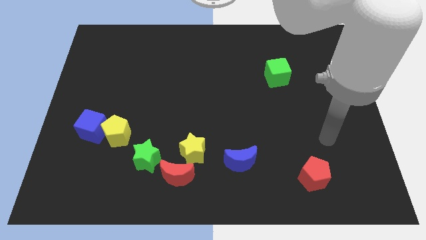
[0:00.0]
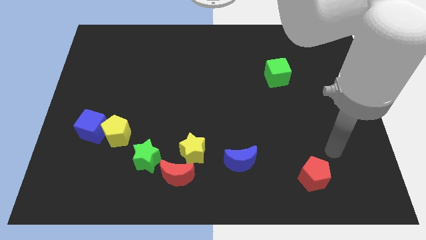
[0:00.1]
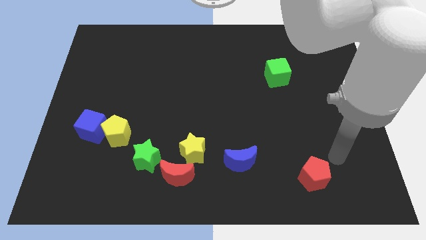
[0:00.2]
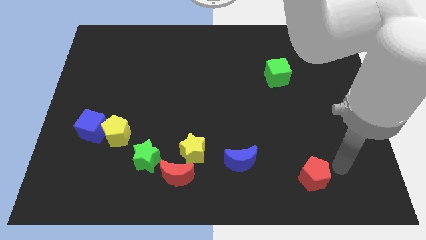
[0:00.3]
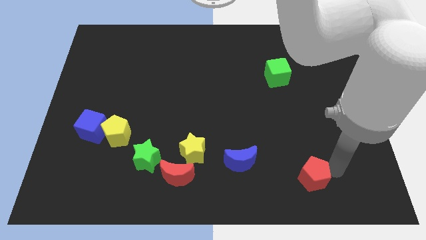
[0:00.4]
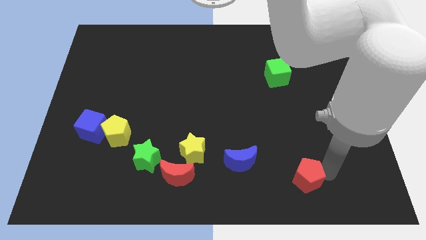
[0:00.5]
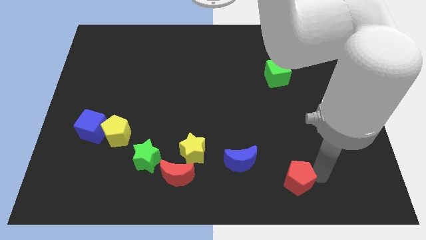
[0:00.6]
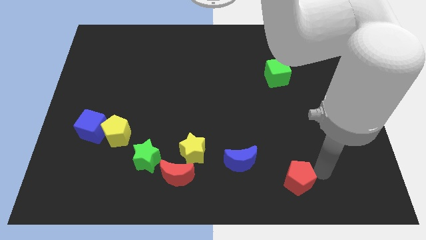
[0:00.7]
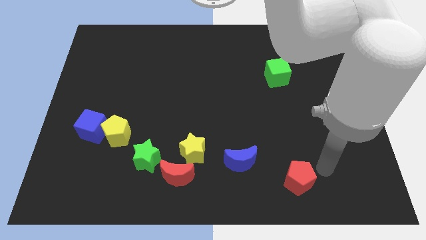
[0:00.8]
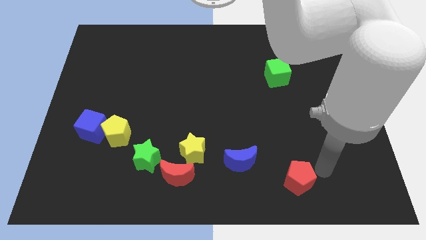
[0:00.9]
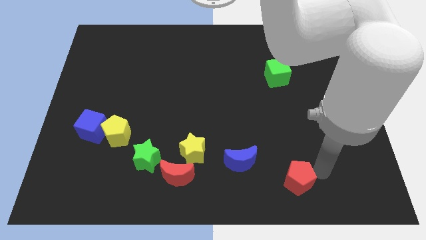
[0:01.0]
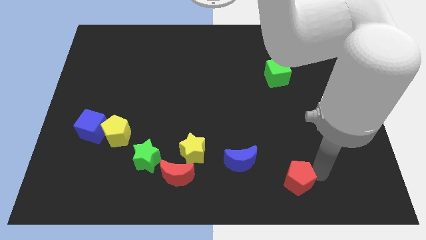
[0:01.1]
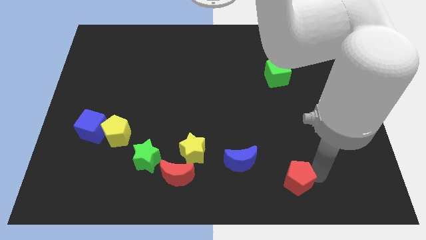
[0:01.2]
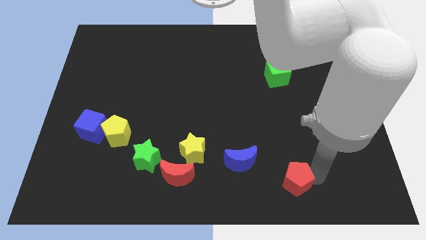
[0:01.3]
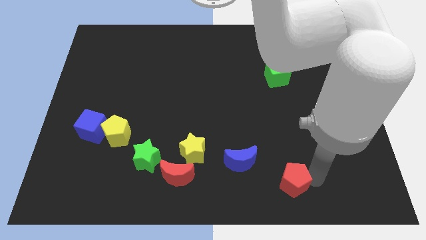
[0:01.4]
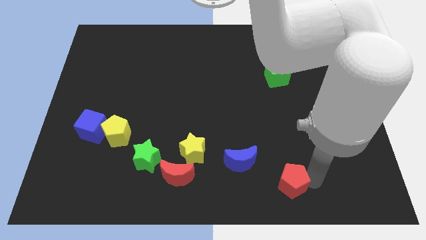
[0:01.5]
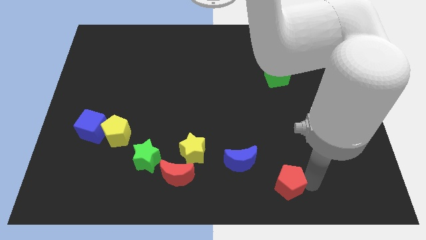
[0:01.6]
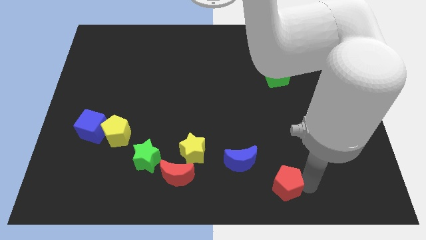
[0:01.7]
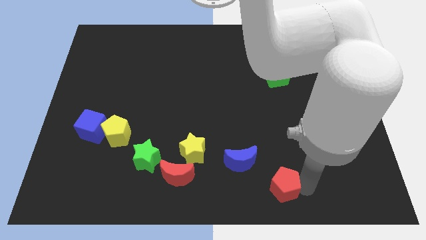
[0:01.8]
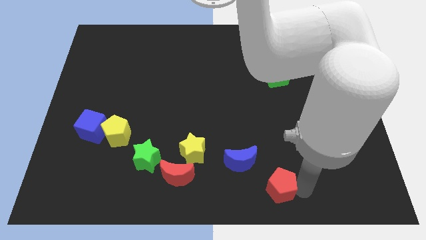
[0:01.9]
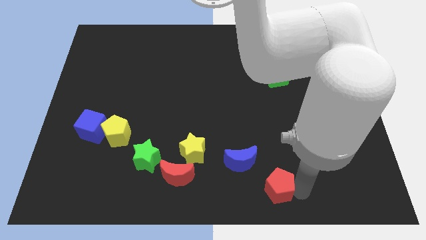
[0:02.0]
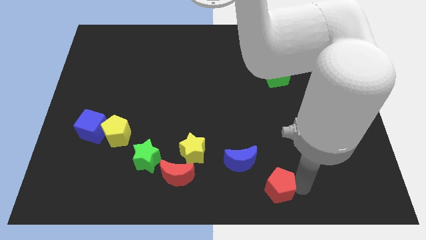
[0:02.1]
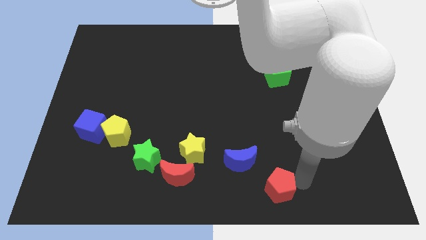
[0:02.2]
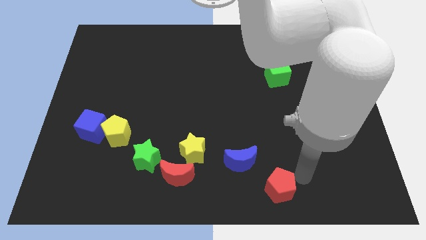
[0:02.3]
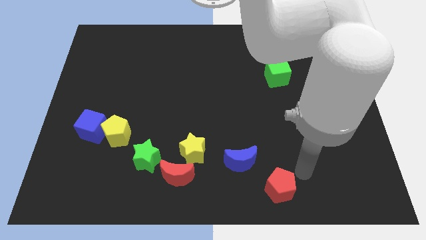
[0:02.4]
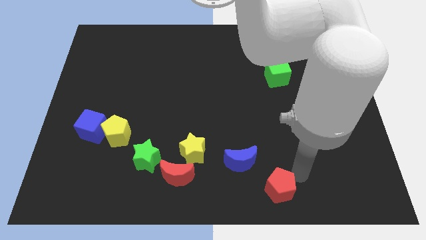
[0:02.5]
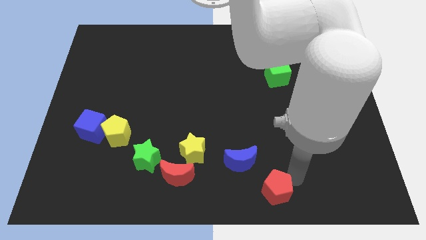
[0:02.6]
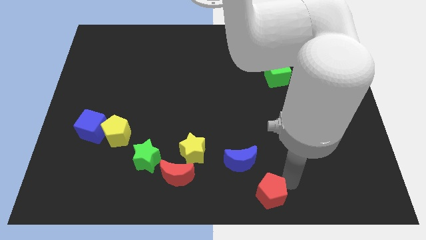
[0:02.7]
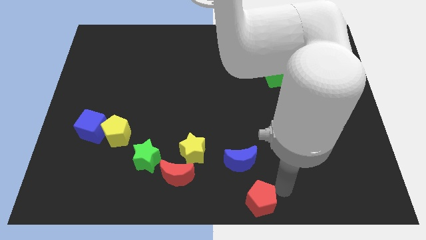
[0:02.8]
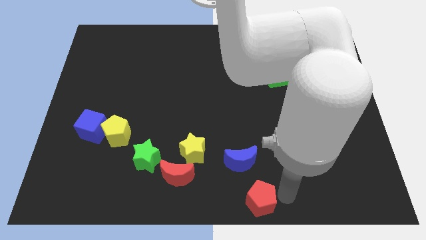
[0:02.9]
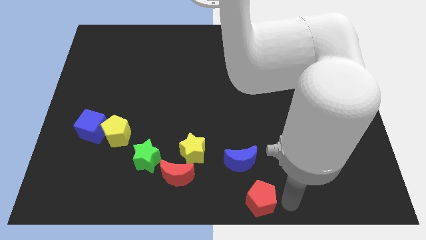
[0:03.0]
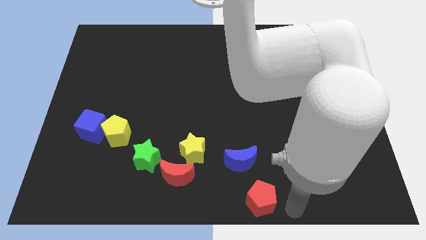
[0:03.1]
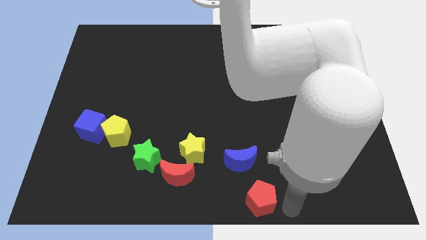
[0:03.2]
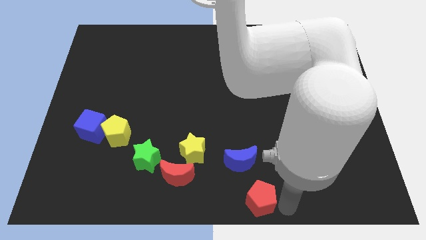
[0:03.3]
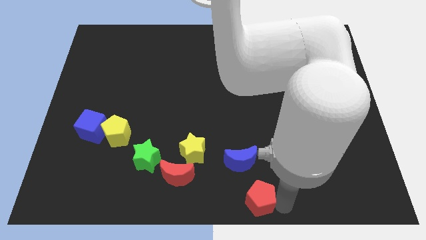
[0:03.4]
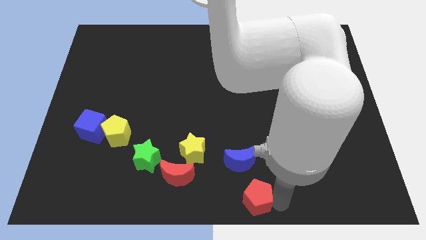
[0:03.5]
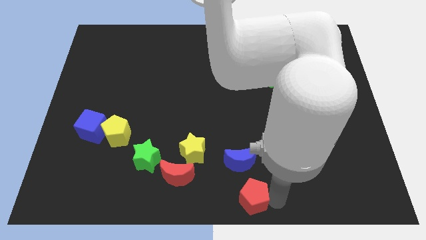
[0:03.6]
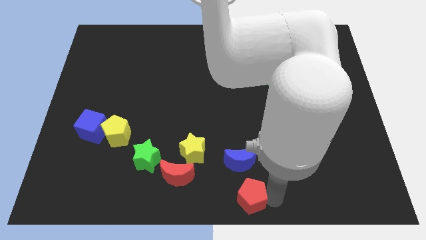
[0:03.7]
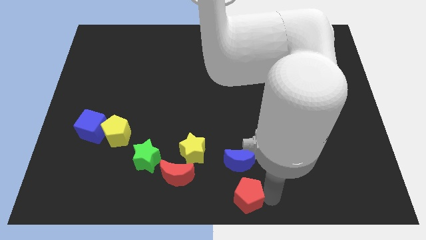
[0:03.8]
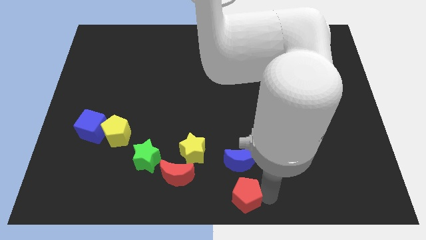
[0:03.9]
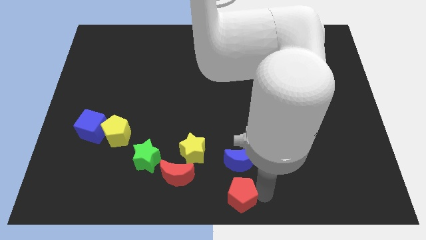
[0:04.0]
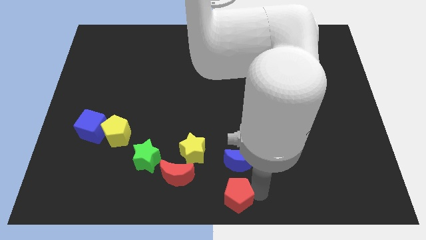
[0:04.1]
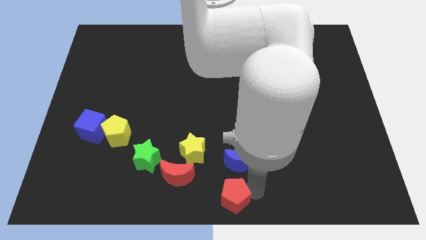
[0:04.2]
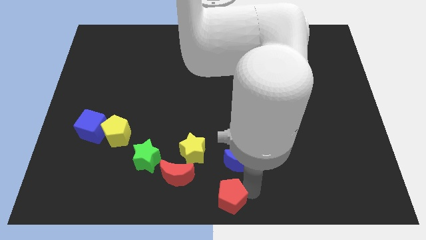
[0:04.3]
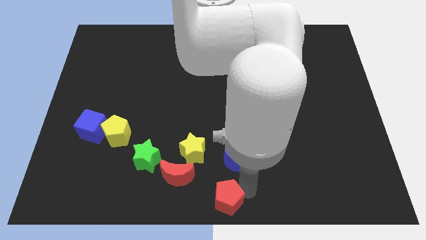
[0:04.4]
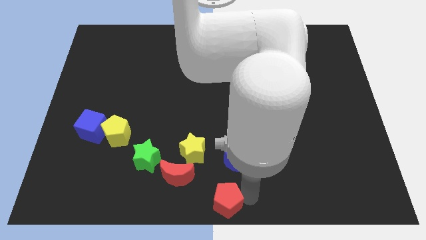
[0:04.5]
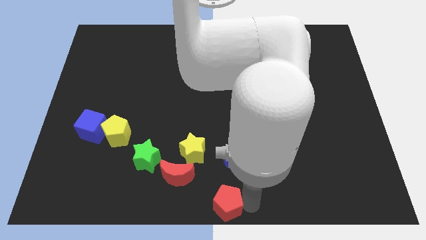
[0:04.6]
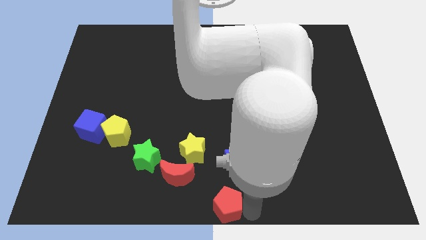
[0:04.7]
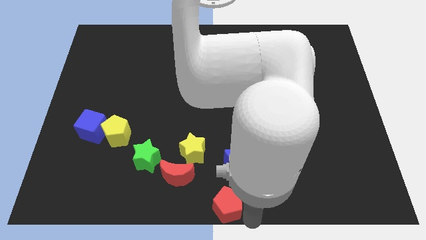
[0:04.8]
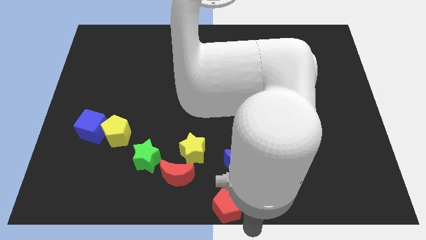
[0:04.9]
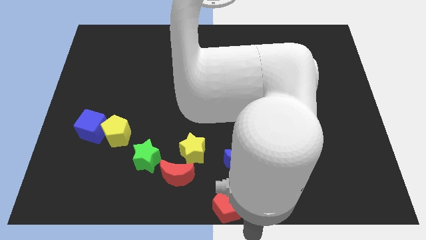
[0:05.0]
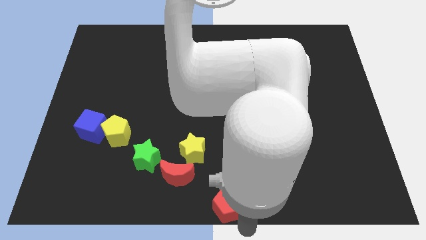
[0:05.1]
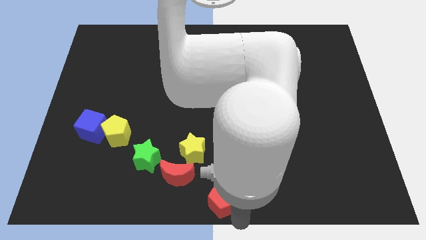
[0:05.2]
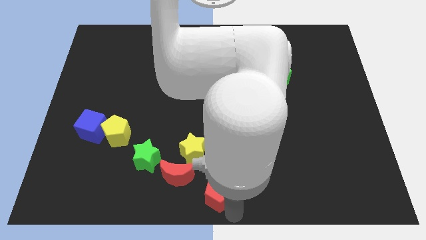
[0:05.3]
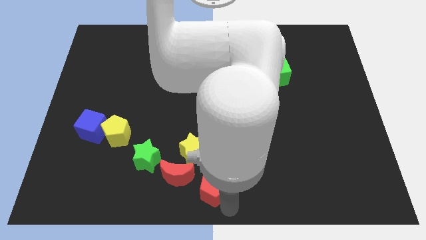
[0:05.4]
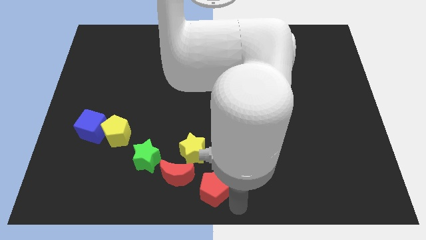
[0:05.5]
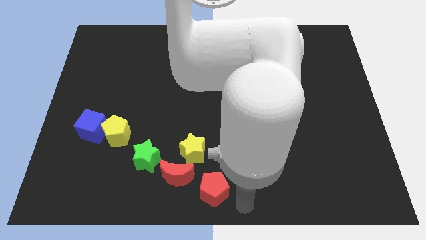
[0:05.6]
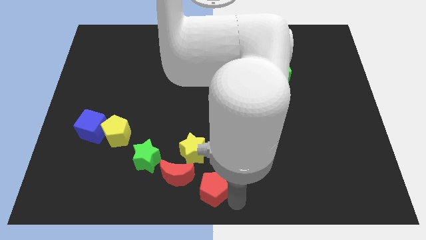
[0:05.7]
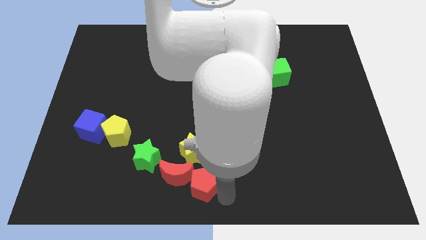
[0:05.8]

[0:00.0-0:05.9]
slide the red pentagon next to the red moon

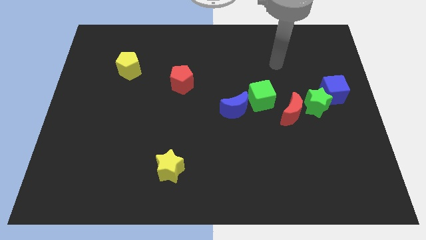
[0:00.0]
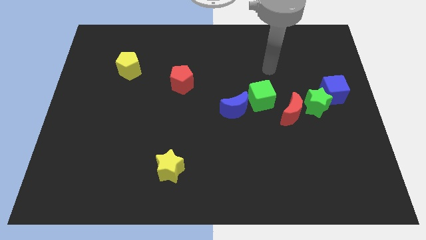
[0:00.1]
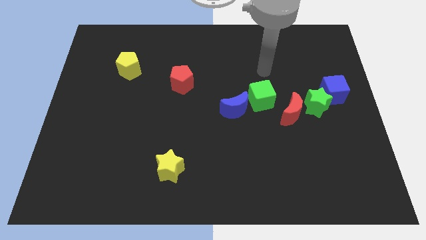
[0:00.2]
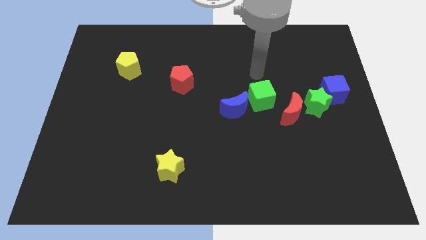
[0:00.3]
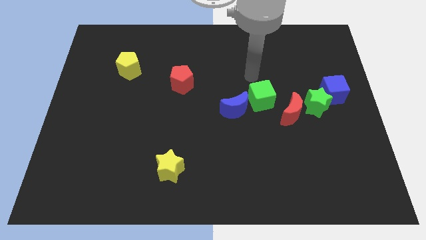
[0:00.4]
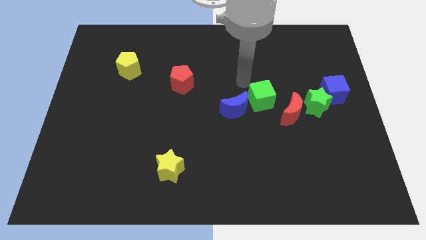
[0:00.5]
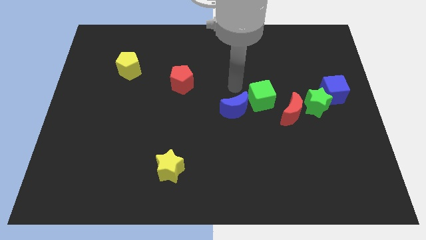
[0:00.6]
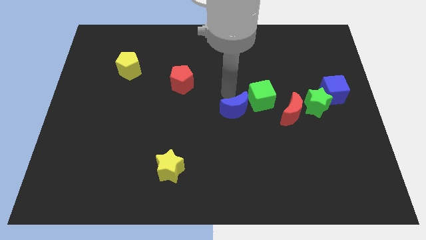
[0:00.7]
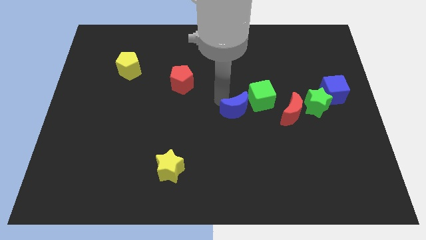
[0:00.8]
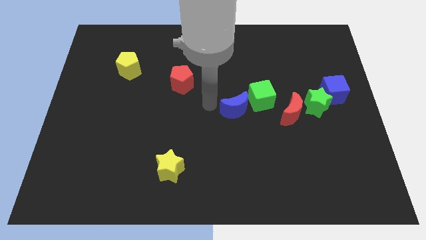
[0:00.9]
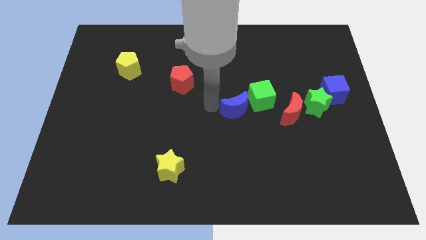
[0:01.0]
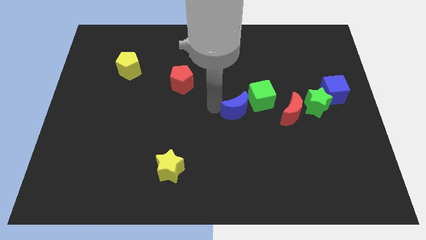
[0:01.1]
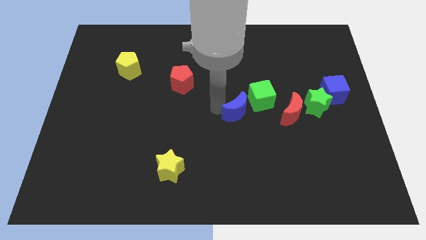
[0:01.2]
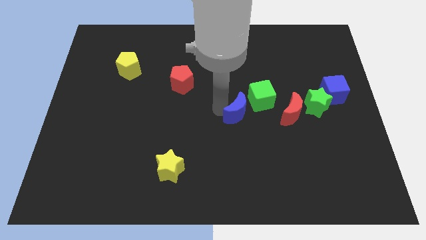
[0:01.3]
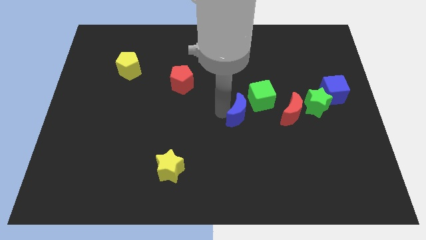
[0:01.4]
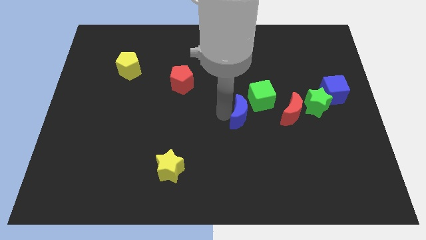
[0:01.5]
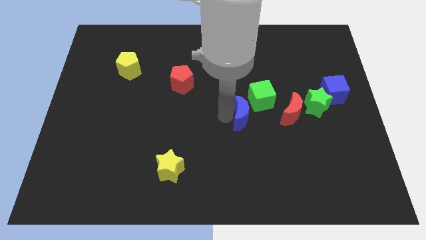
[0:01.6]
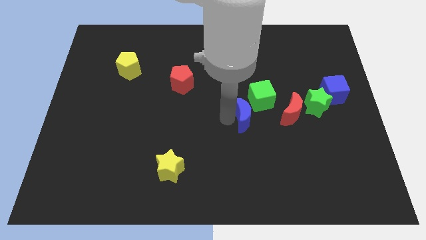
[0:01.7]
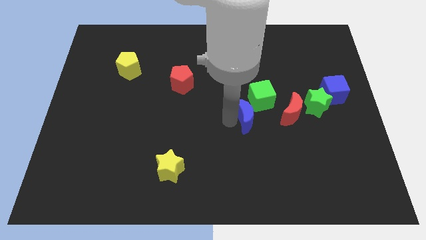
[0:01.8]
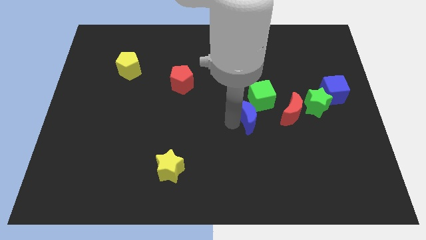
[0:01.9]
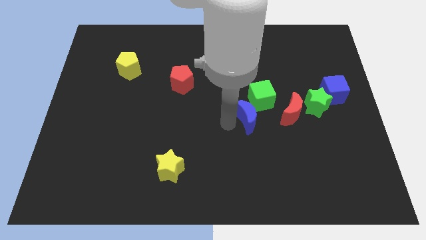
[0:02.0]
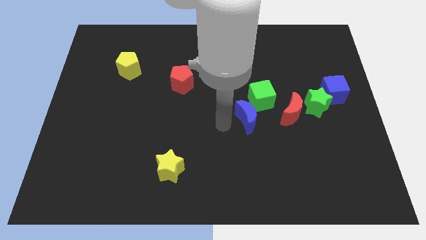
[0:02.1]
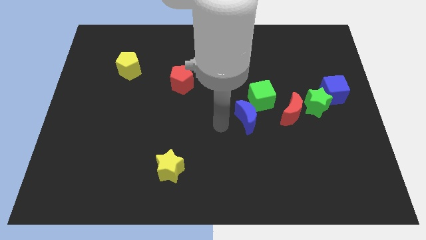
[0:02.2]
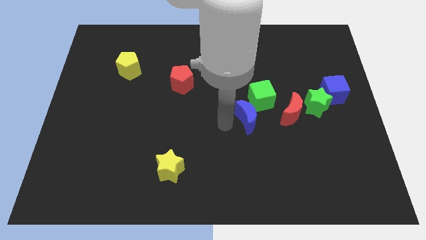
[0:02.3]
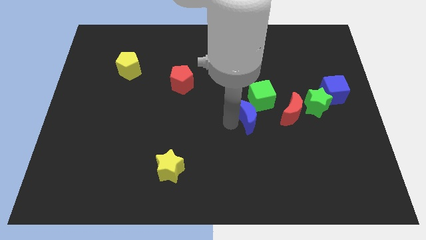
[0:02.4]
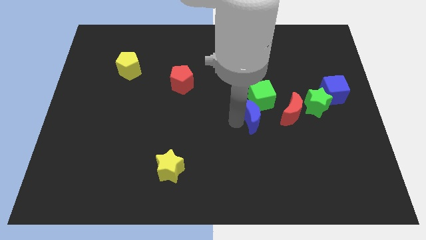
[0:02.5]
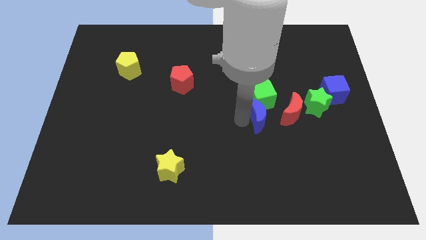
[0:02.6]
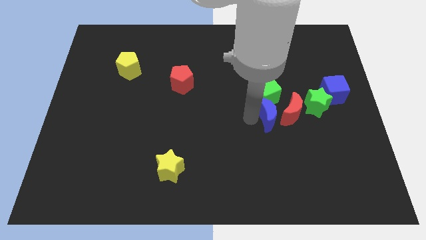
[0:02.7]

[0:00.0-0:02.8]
move the blue moon close to the red moon
